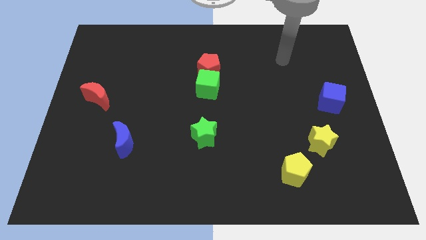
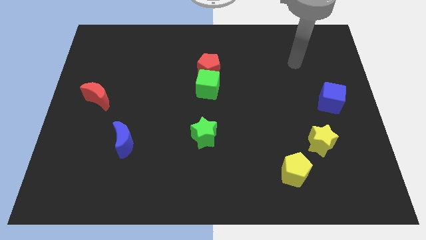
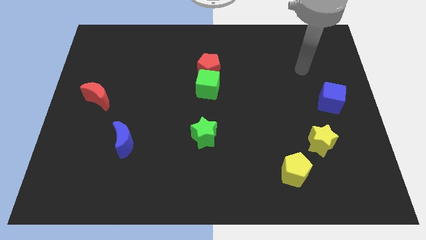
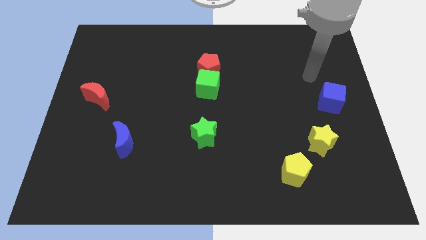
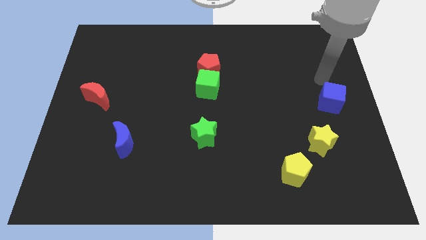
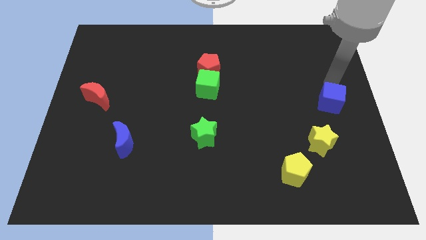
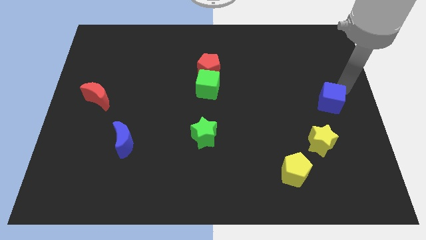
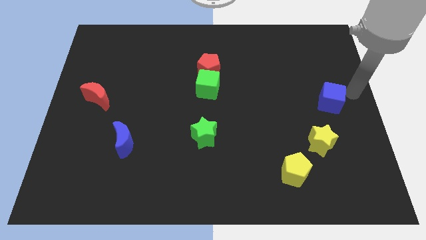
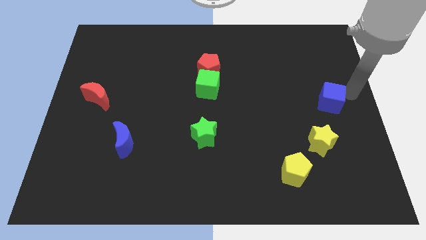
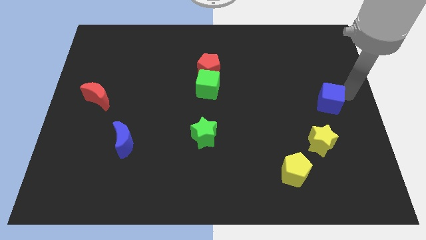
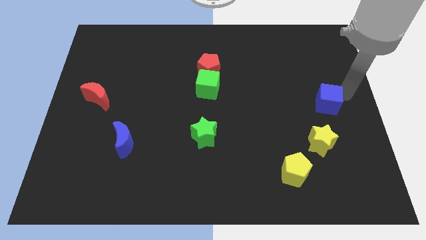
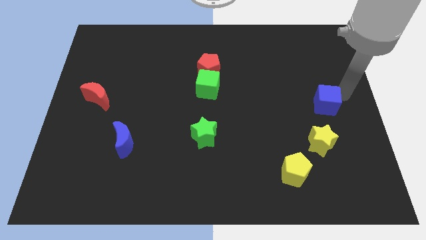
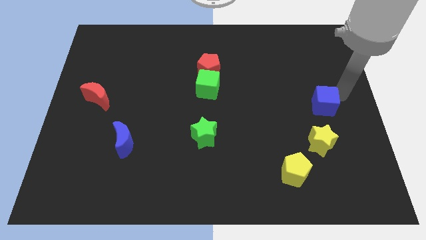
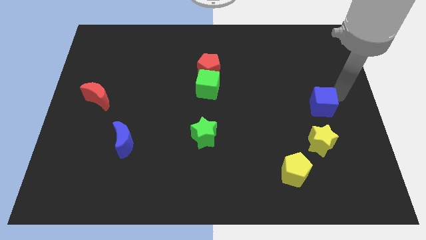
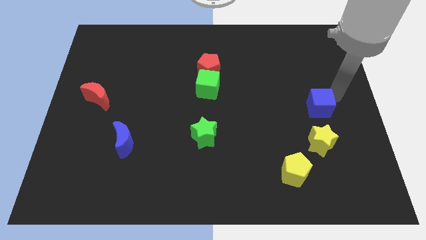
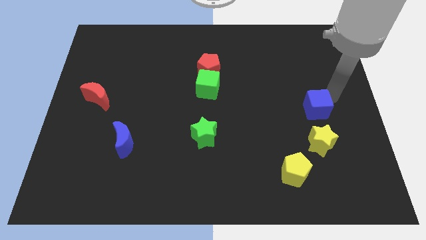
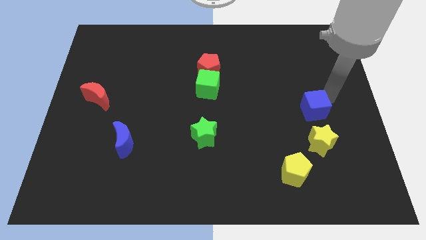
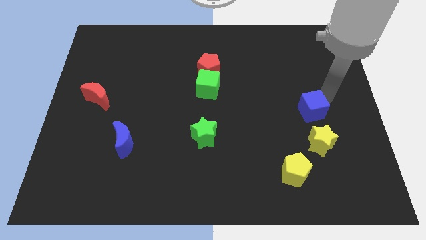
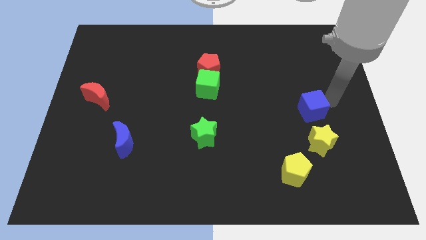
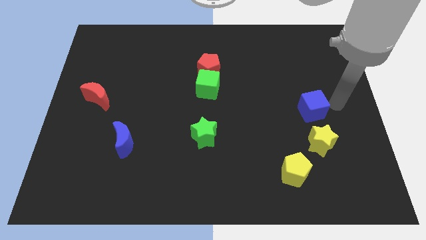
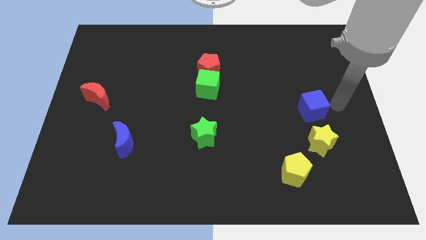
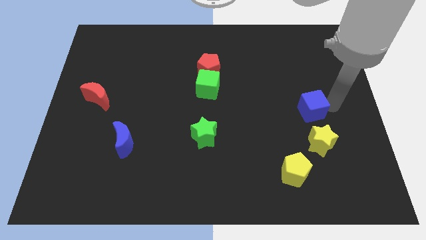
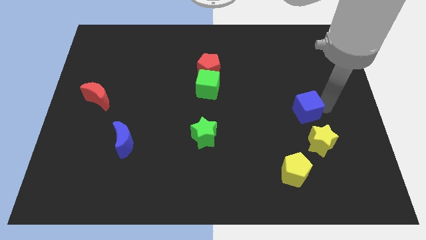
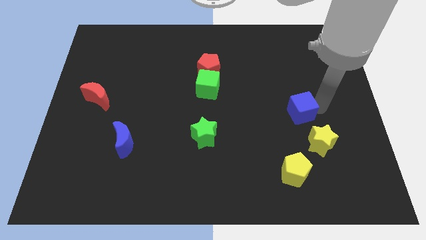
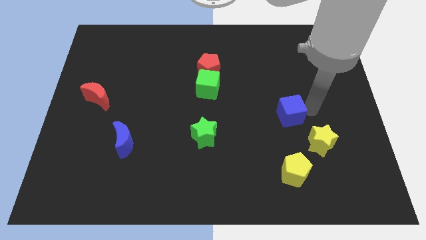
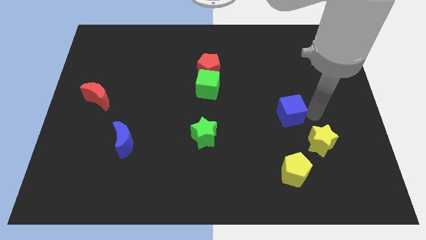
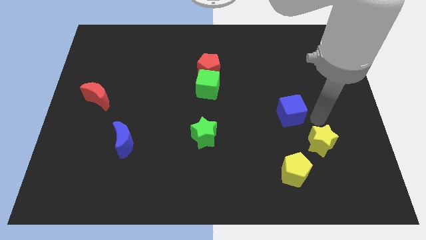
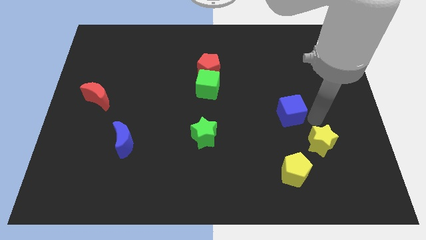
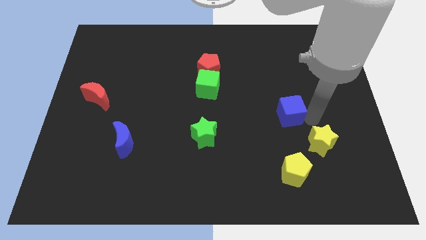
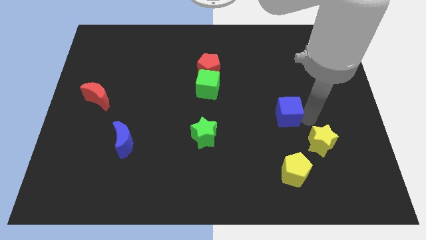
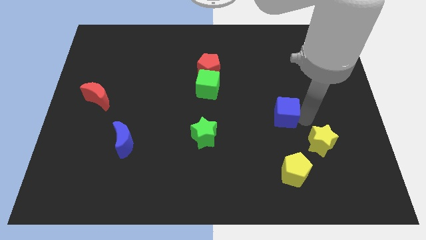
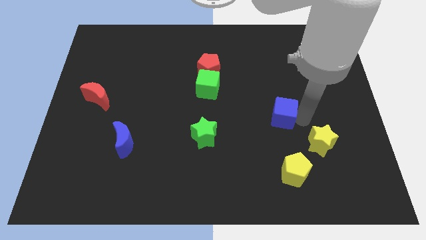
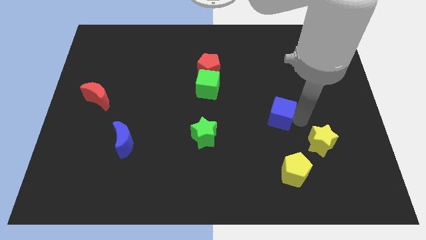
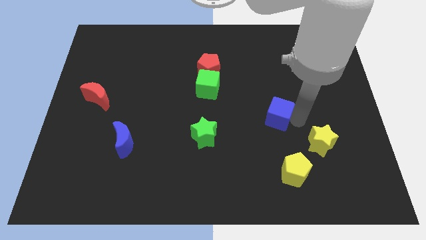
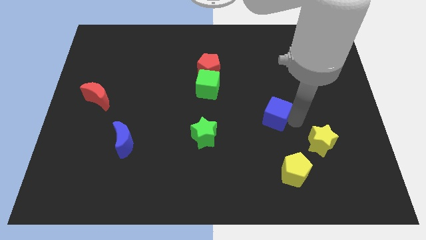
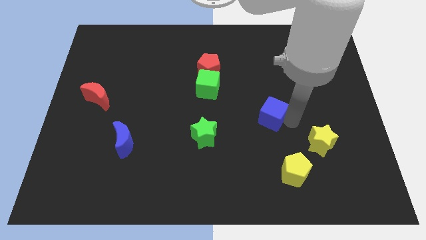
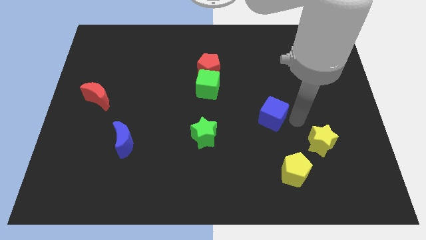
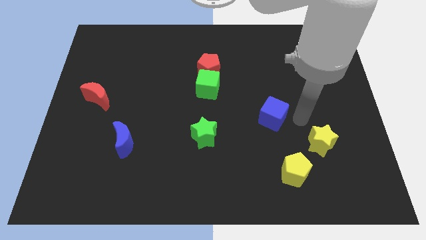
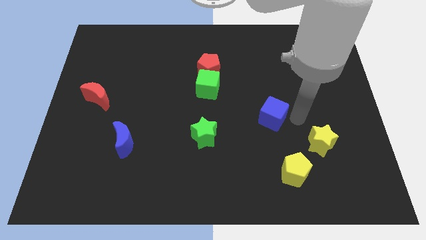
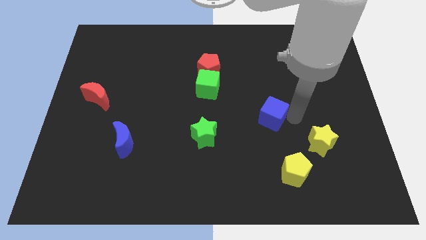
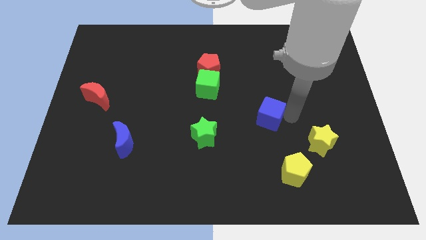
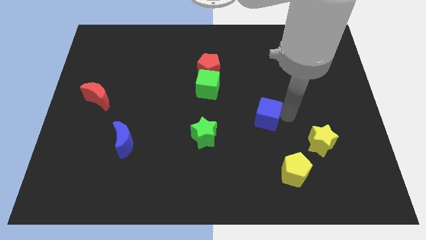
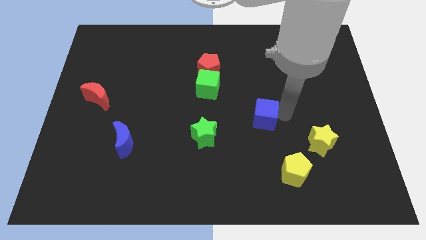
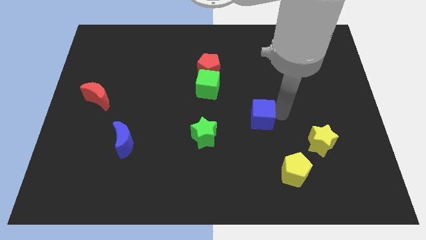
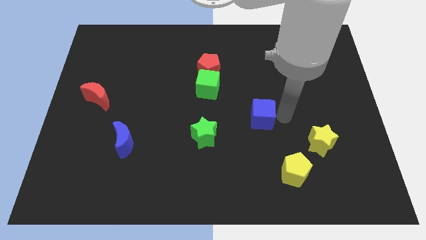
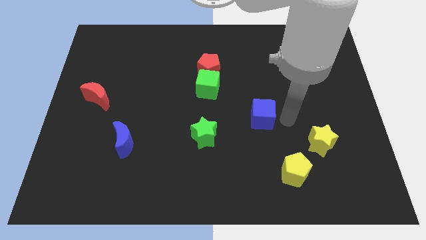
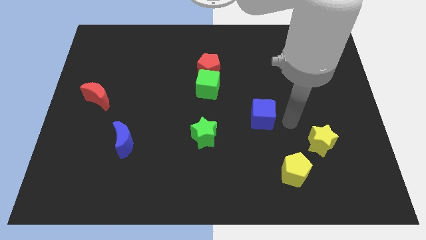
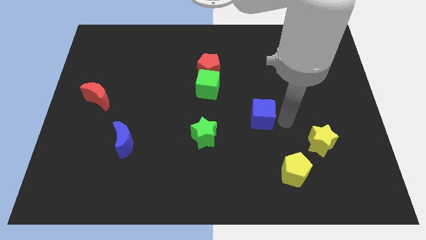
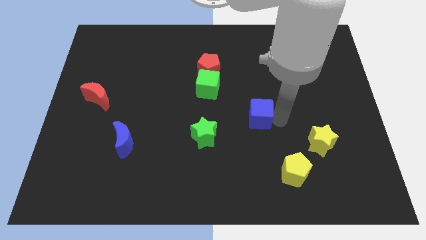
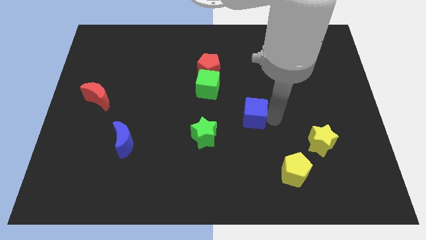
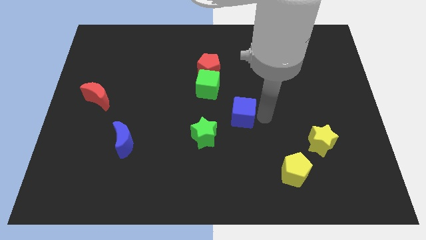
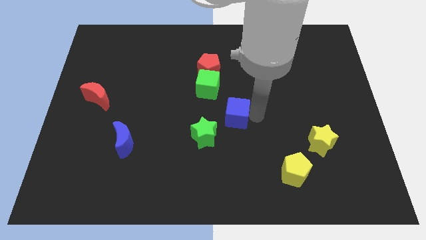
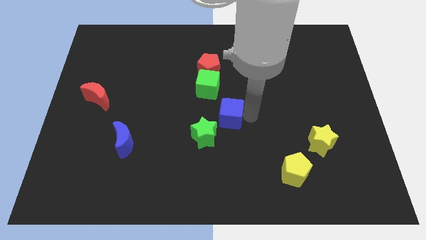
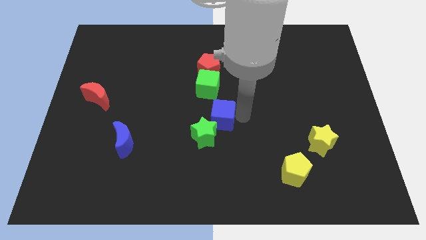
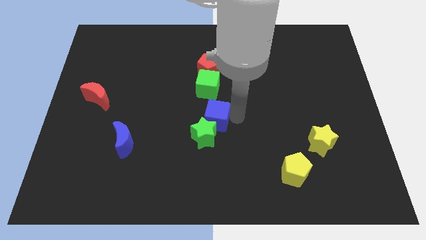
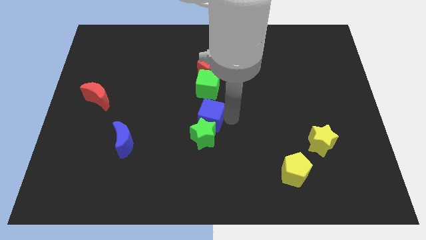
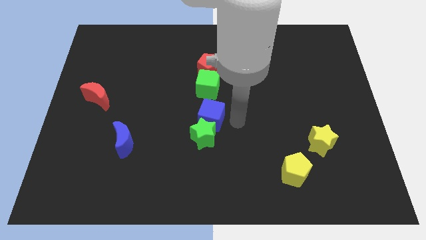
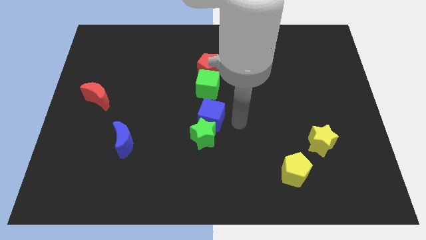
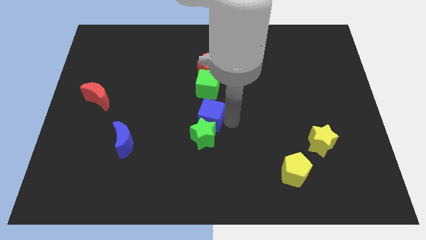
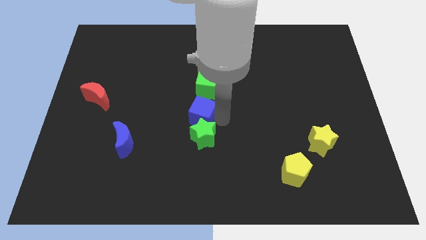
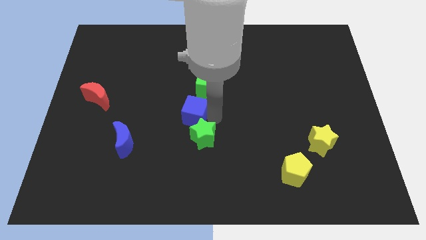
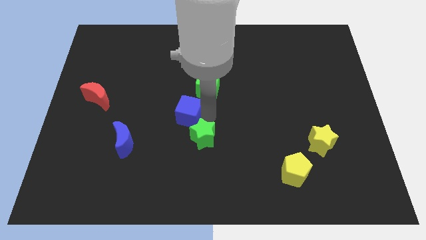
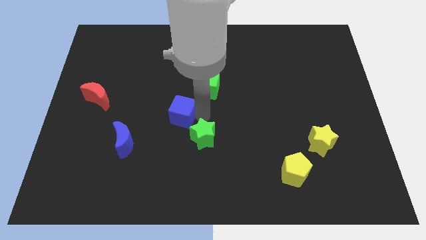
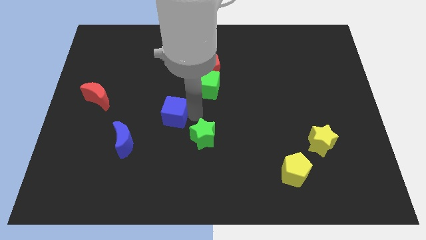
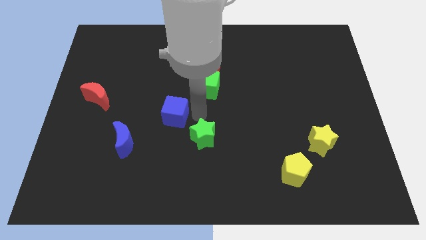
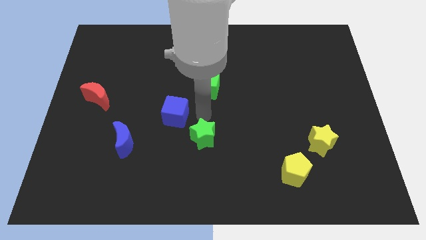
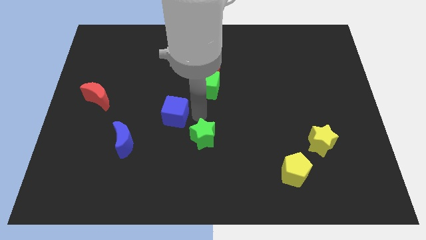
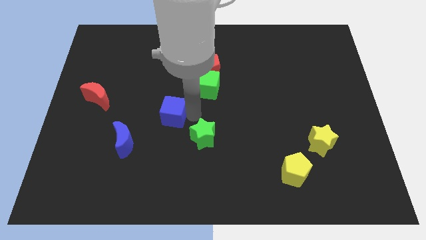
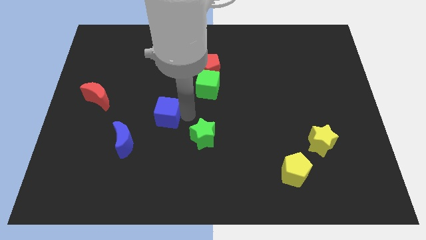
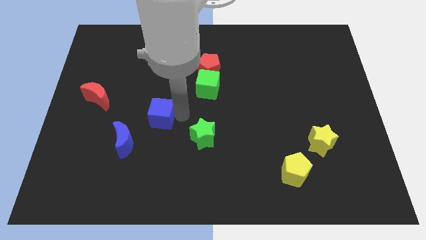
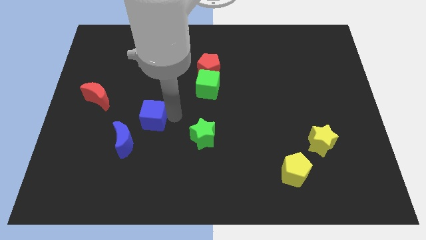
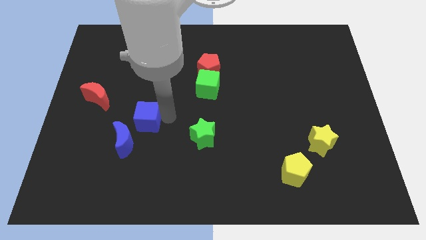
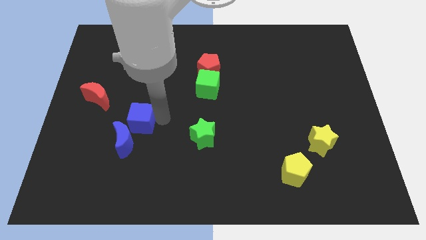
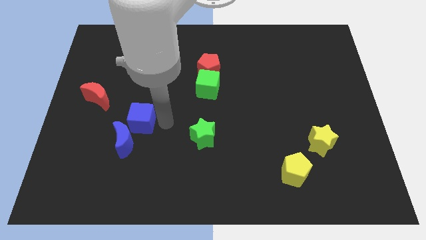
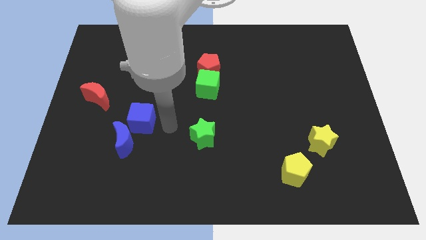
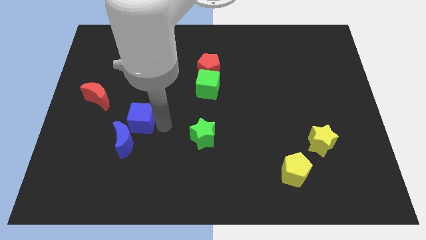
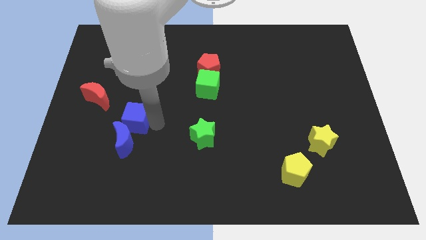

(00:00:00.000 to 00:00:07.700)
push the blue cube to the bottom right side of the red moon

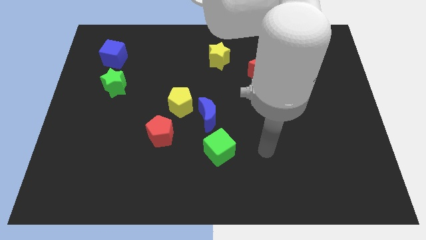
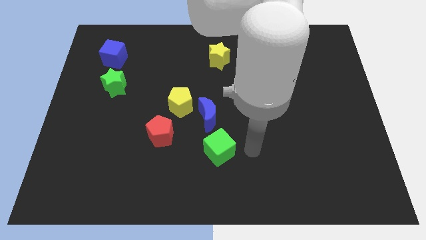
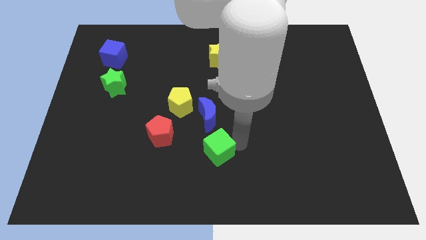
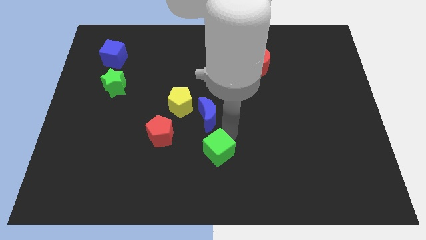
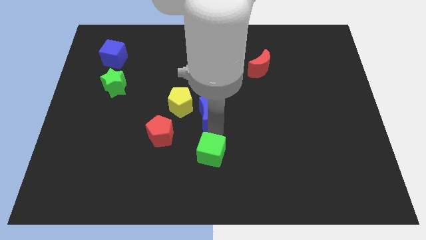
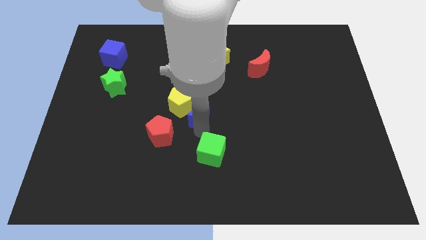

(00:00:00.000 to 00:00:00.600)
slide the yellow pentagon to the top side of the blue moon
